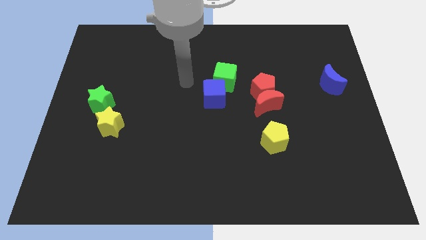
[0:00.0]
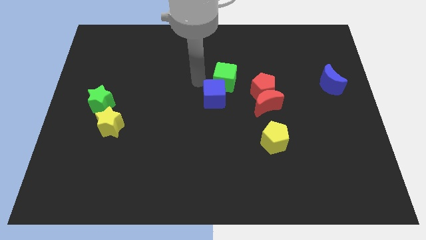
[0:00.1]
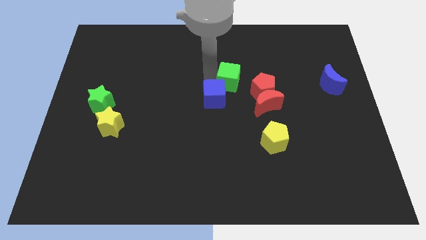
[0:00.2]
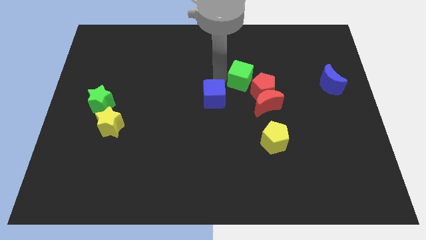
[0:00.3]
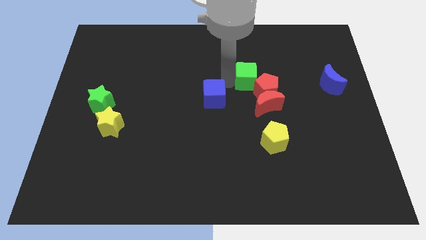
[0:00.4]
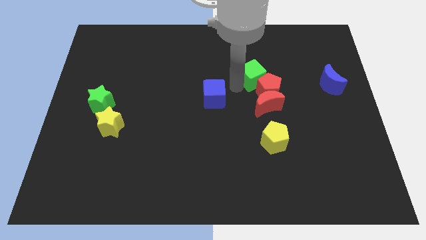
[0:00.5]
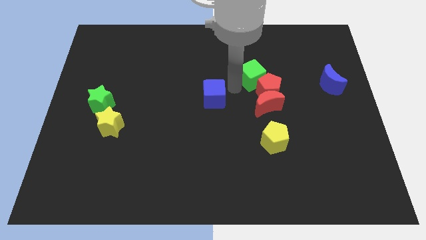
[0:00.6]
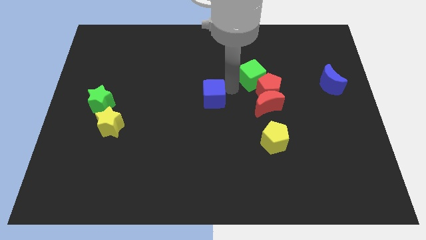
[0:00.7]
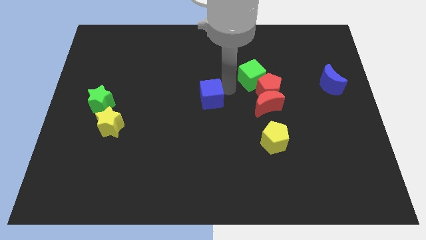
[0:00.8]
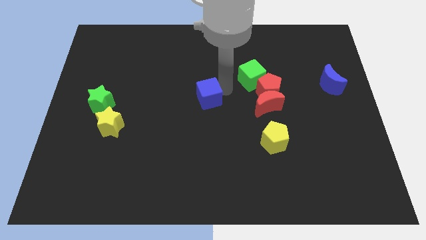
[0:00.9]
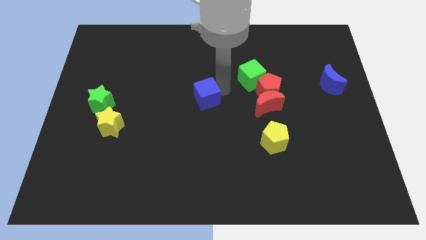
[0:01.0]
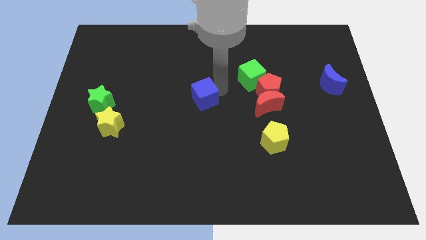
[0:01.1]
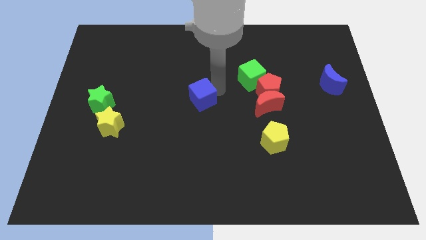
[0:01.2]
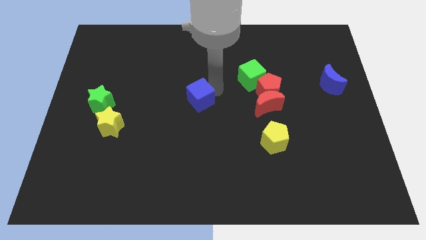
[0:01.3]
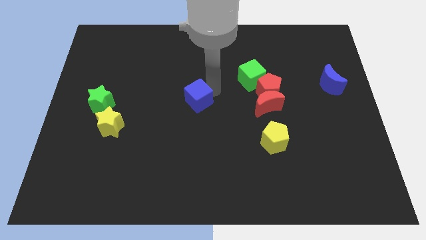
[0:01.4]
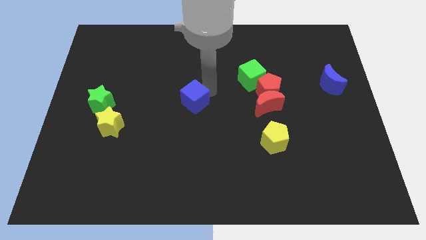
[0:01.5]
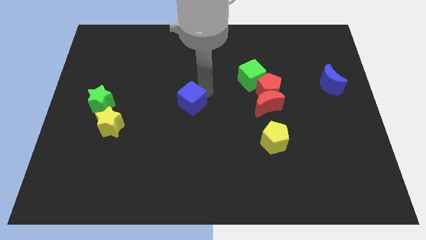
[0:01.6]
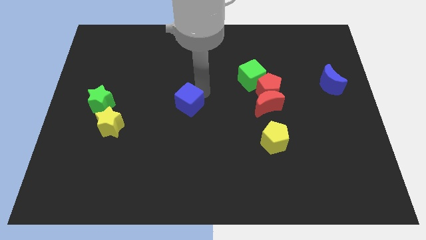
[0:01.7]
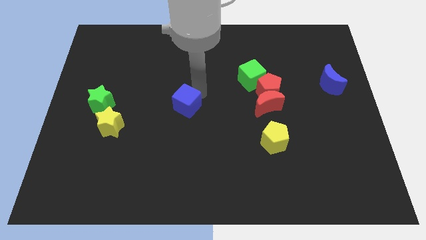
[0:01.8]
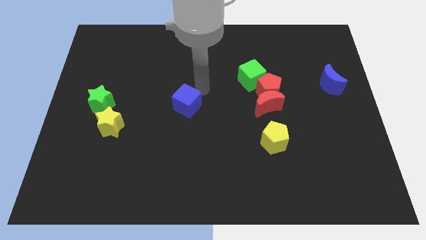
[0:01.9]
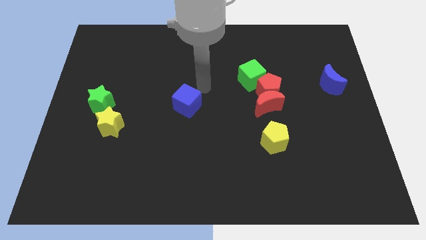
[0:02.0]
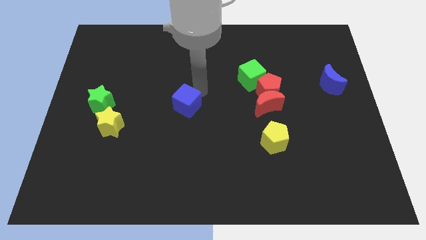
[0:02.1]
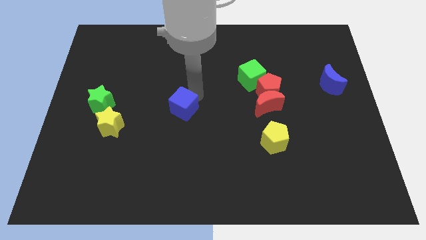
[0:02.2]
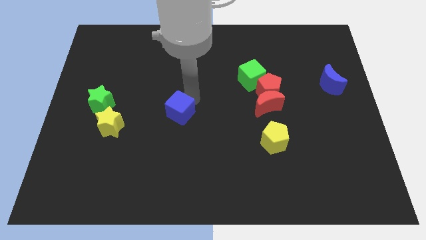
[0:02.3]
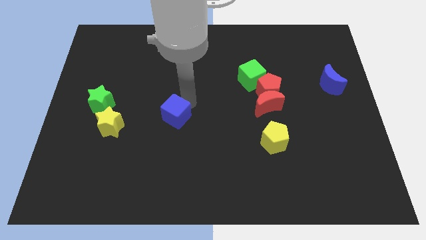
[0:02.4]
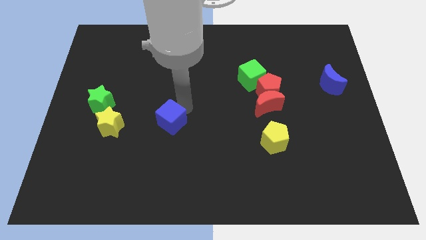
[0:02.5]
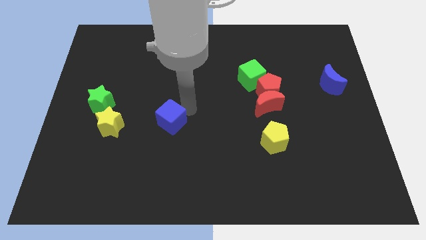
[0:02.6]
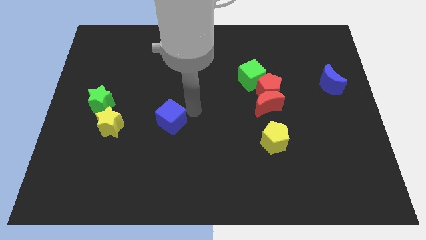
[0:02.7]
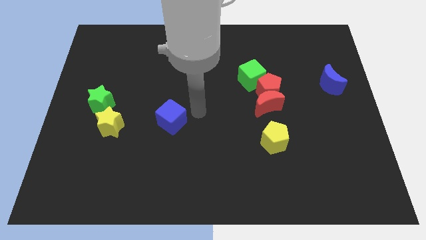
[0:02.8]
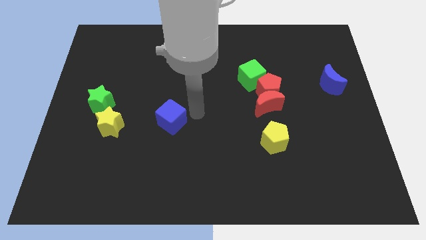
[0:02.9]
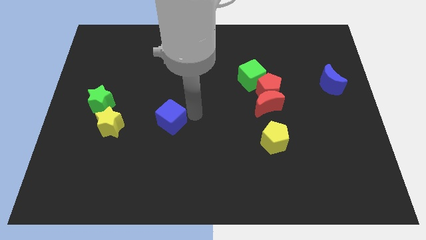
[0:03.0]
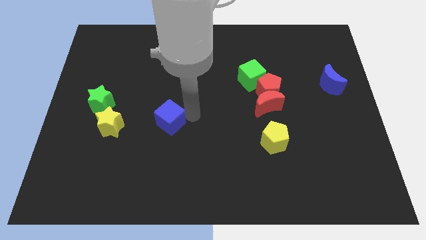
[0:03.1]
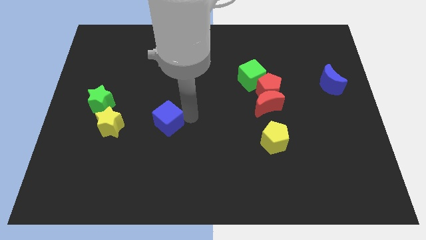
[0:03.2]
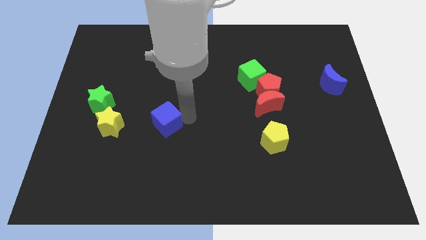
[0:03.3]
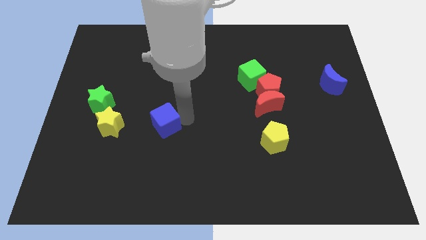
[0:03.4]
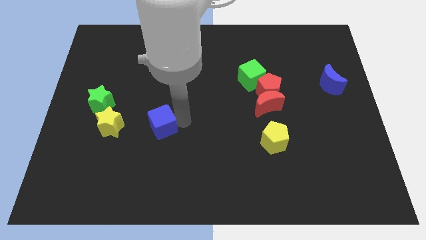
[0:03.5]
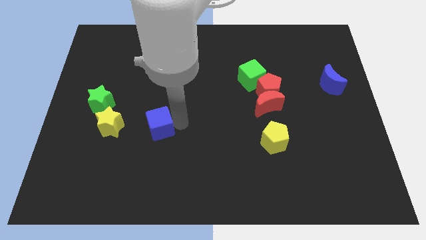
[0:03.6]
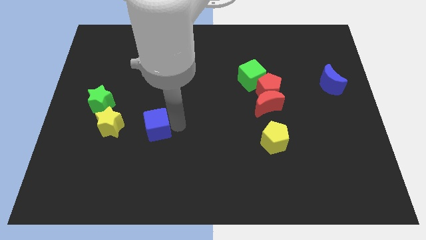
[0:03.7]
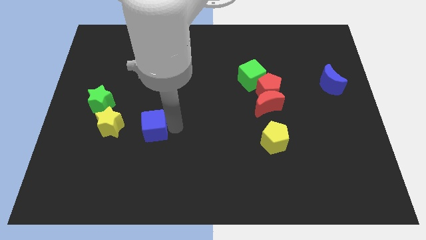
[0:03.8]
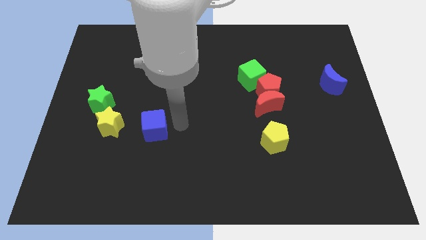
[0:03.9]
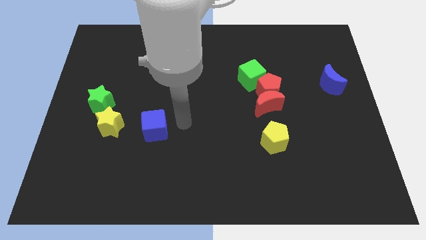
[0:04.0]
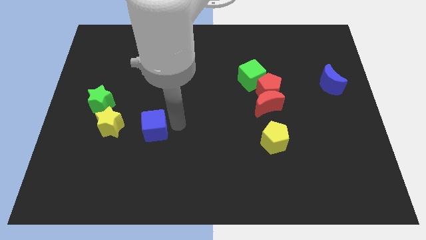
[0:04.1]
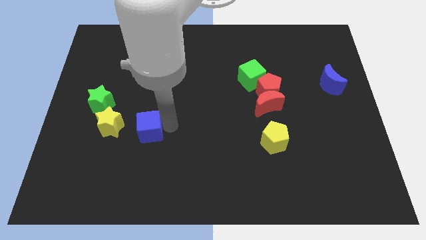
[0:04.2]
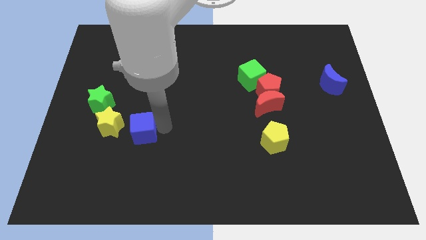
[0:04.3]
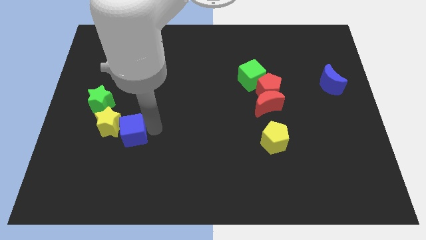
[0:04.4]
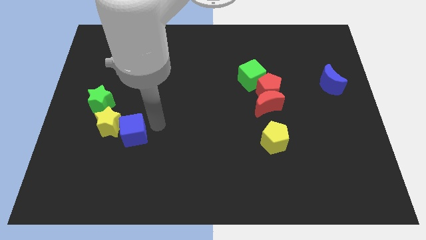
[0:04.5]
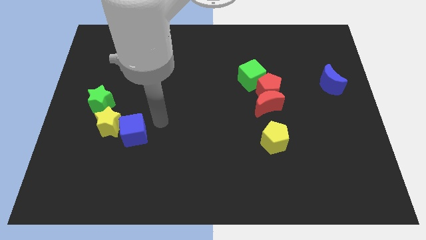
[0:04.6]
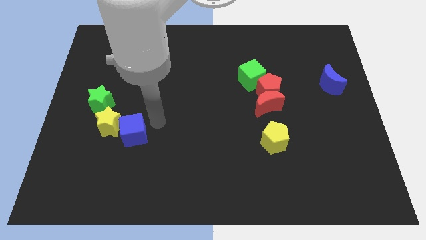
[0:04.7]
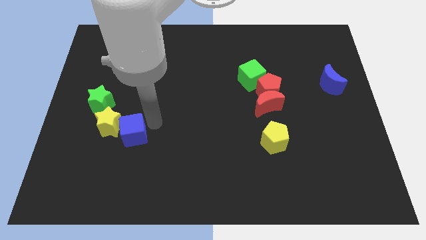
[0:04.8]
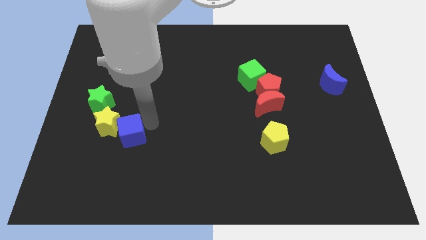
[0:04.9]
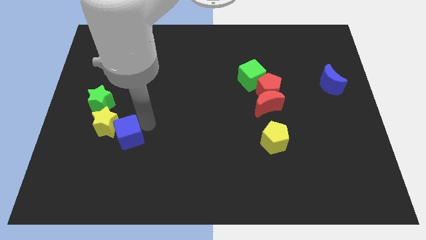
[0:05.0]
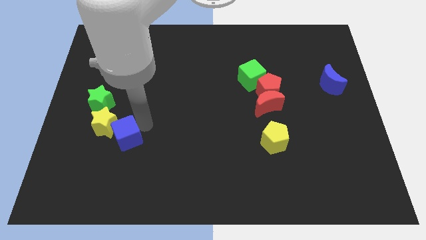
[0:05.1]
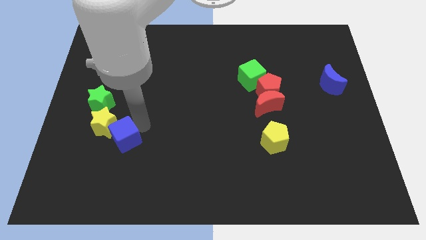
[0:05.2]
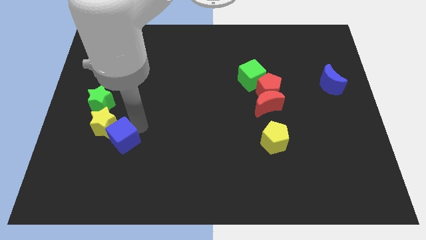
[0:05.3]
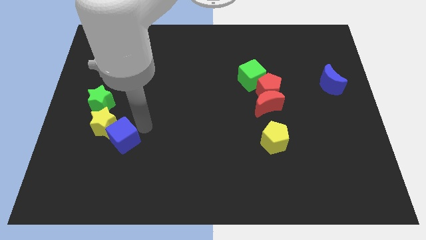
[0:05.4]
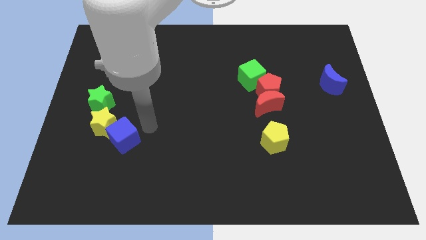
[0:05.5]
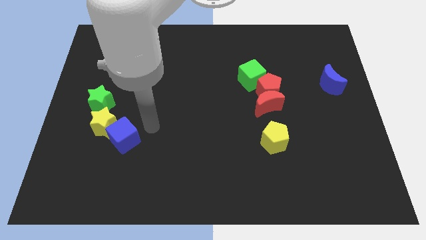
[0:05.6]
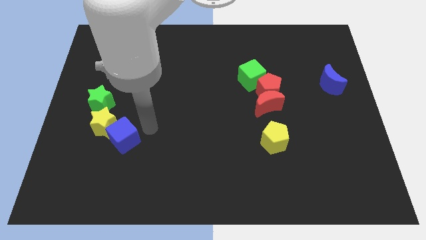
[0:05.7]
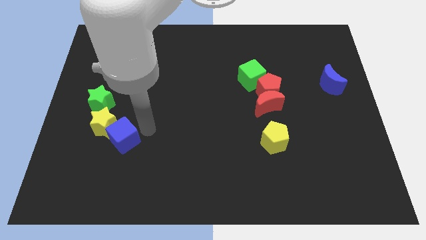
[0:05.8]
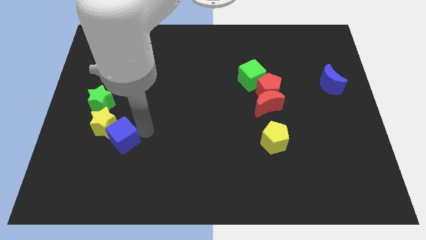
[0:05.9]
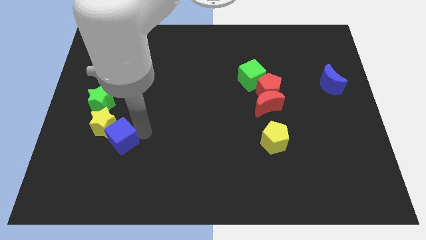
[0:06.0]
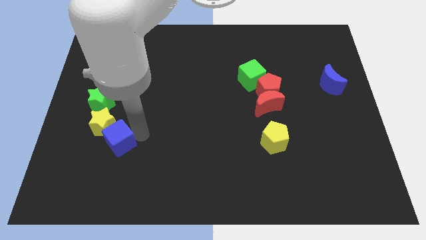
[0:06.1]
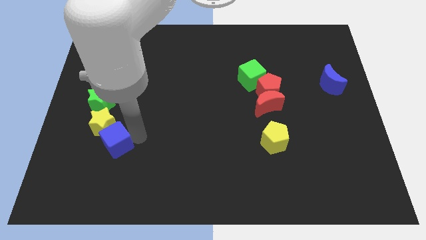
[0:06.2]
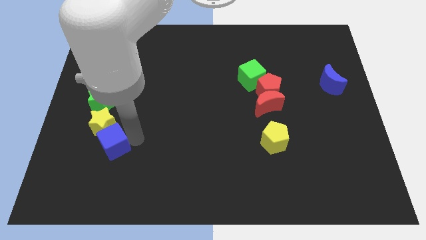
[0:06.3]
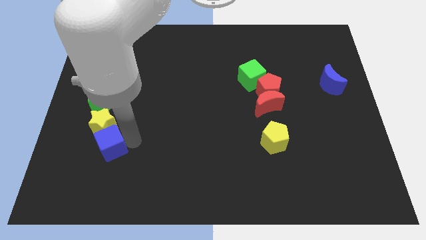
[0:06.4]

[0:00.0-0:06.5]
slide the blue cube to the bottom of the green star

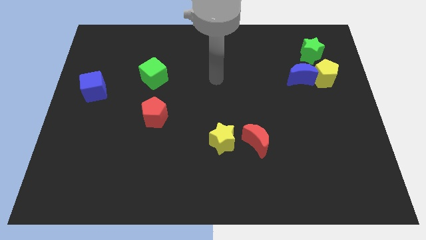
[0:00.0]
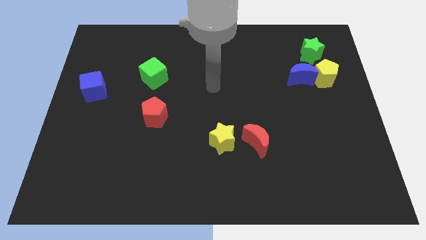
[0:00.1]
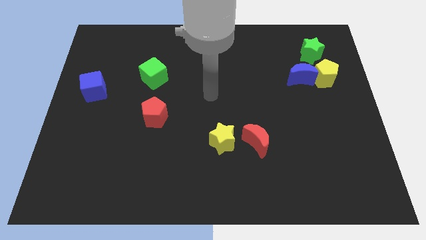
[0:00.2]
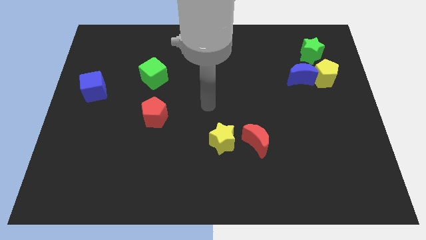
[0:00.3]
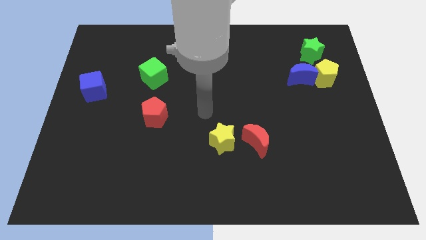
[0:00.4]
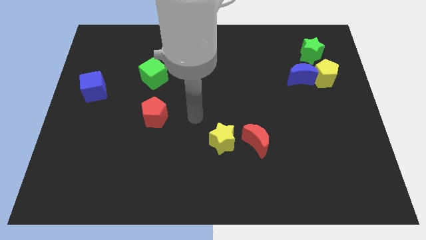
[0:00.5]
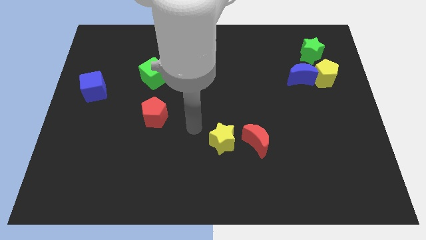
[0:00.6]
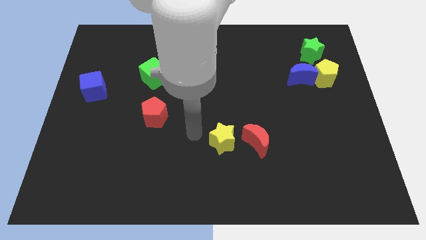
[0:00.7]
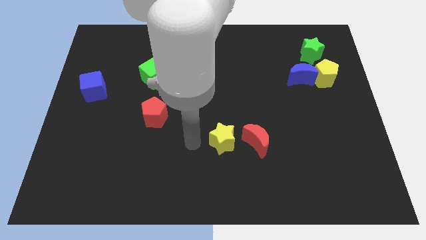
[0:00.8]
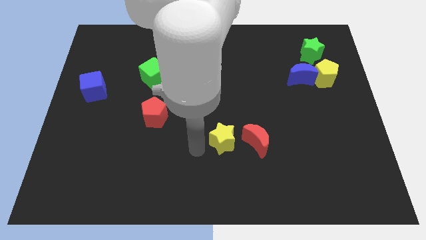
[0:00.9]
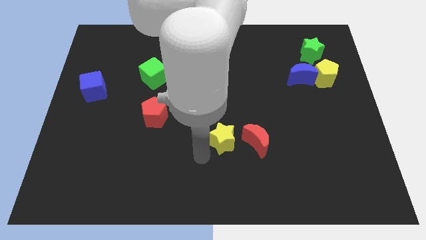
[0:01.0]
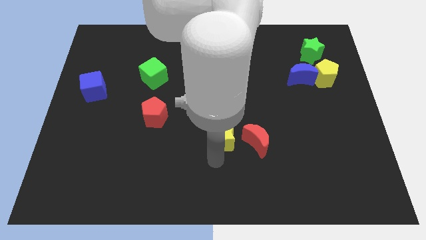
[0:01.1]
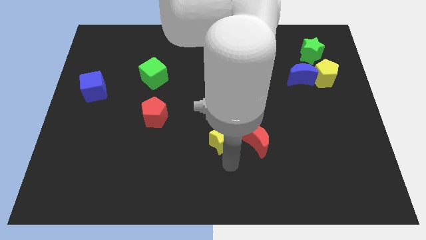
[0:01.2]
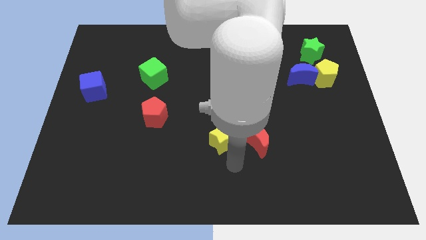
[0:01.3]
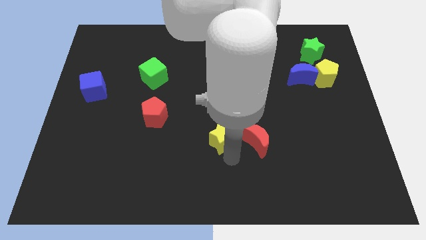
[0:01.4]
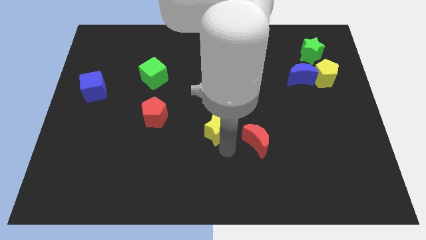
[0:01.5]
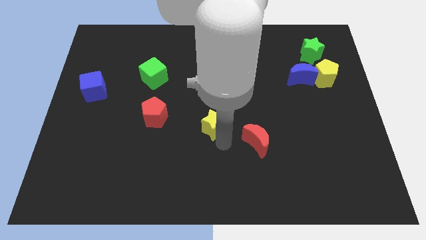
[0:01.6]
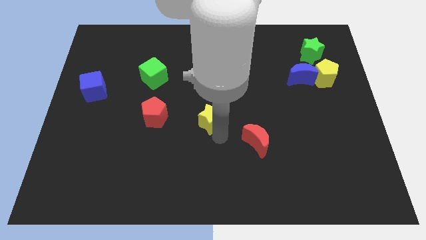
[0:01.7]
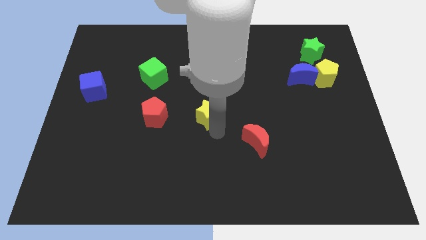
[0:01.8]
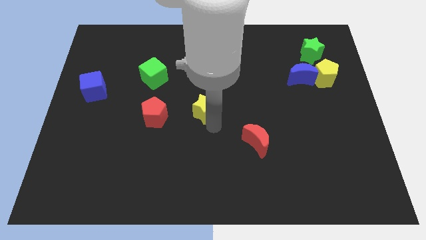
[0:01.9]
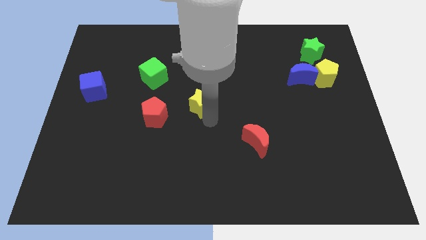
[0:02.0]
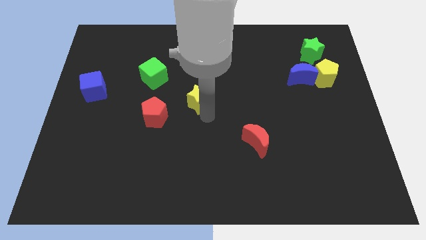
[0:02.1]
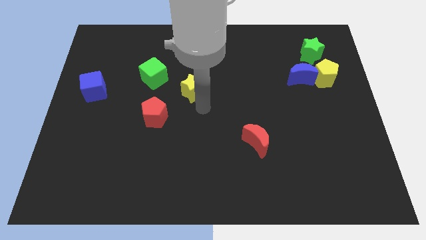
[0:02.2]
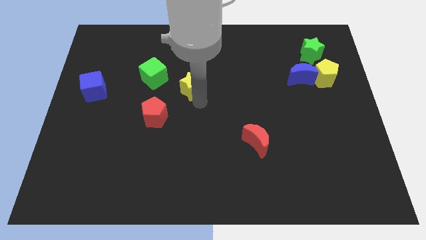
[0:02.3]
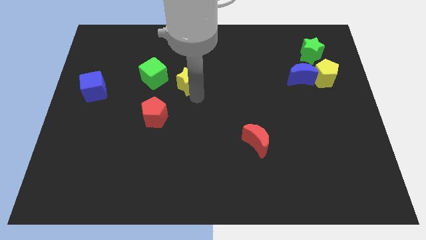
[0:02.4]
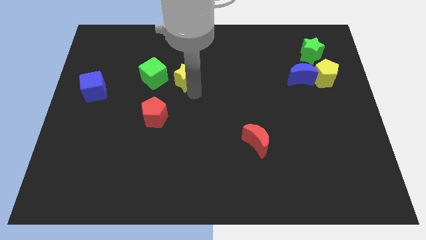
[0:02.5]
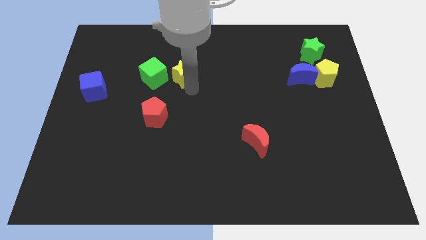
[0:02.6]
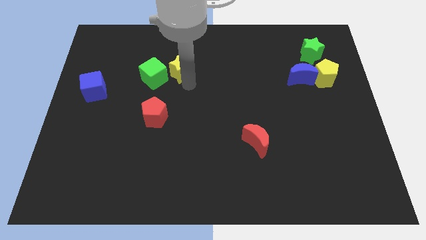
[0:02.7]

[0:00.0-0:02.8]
slide the yellow star diagonally up and to the right of the green cube
